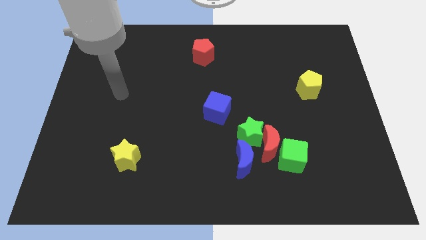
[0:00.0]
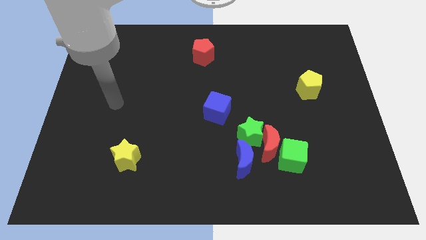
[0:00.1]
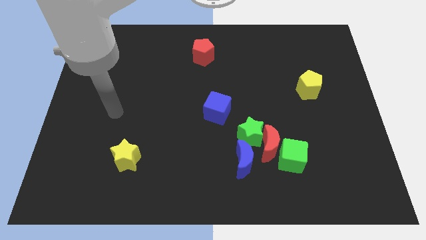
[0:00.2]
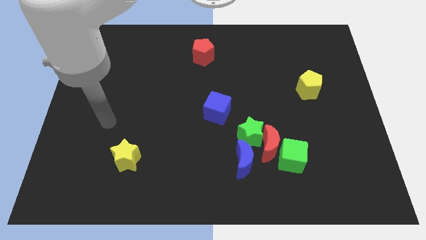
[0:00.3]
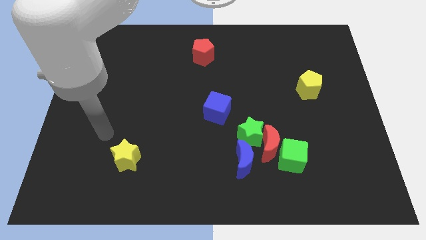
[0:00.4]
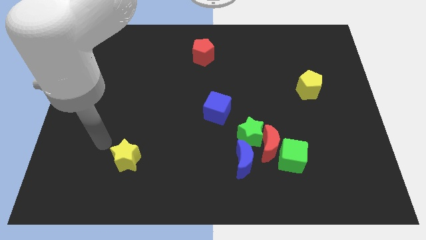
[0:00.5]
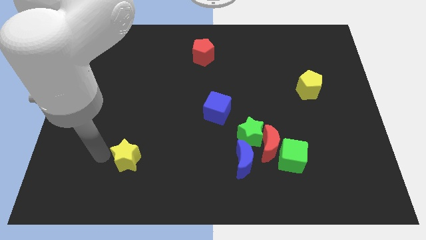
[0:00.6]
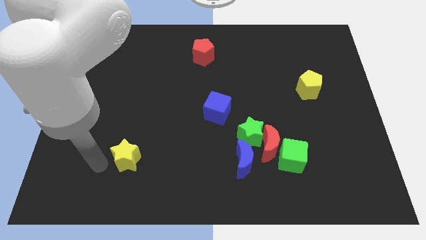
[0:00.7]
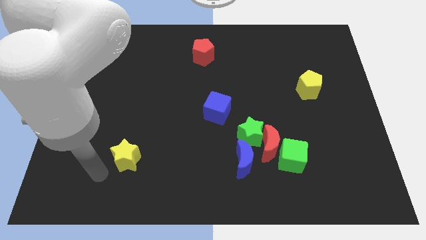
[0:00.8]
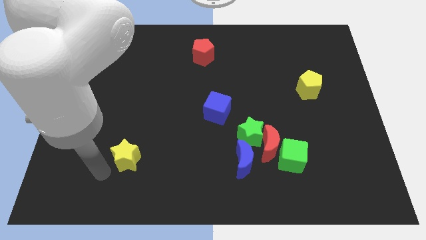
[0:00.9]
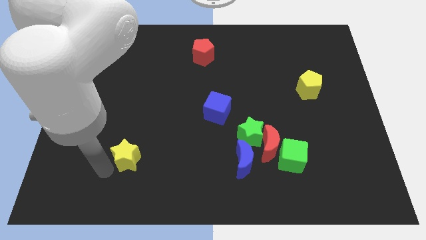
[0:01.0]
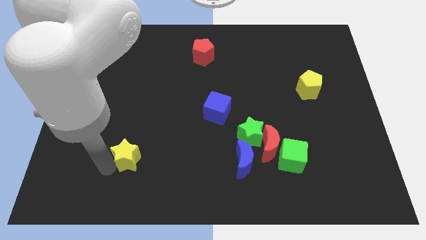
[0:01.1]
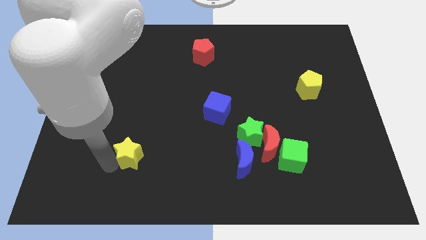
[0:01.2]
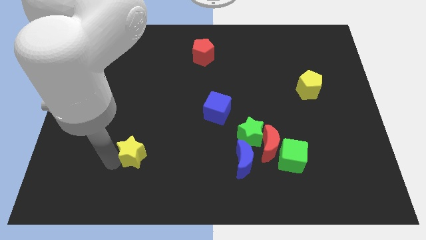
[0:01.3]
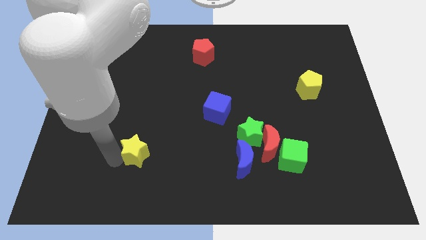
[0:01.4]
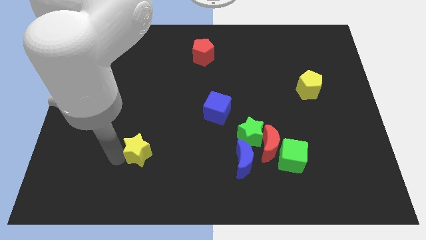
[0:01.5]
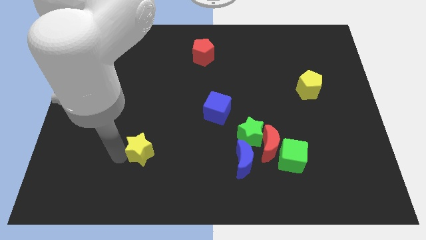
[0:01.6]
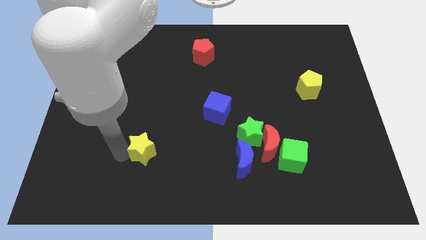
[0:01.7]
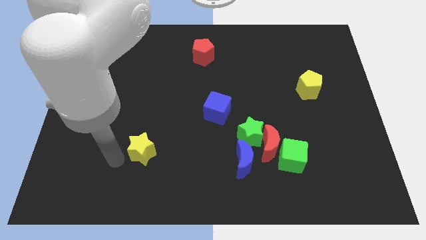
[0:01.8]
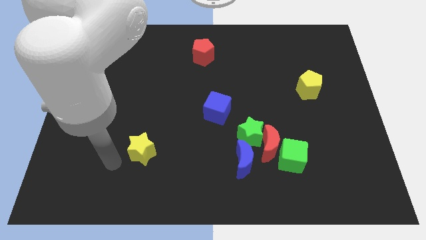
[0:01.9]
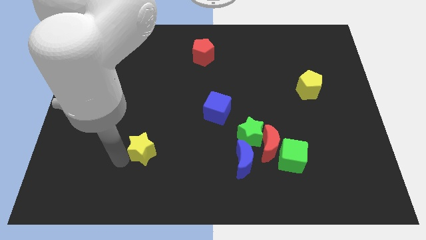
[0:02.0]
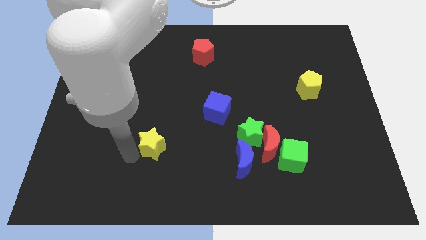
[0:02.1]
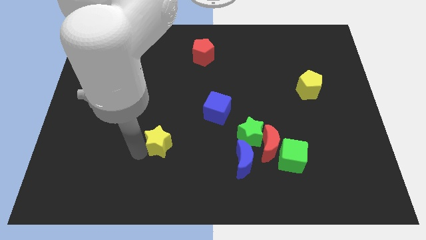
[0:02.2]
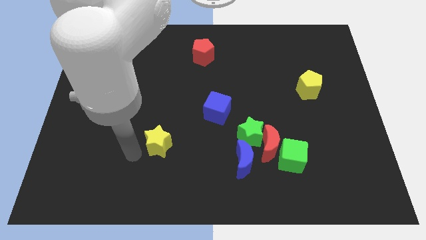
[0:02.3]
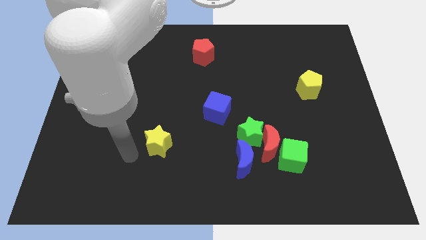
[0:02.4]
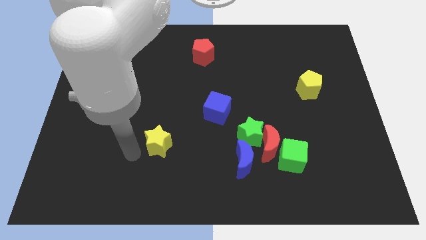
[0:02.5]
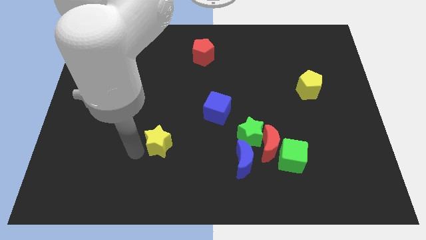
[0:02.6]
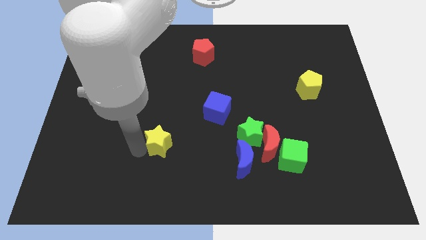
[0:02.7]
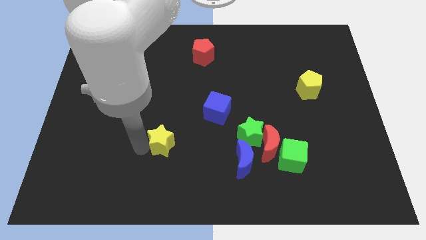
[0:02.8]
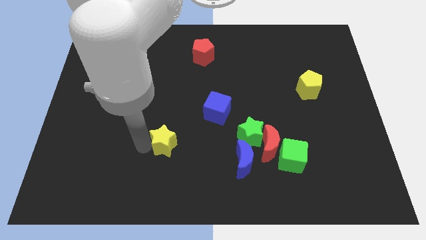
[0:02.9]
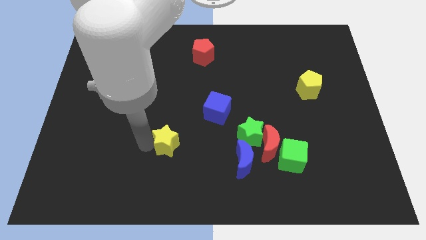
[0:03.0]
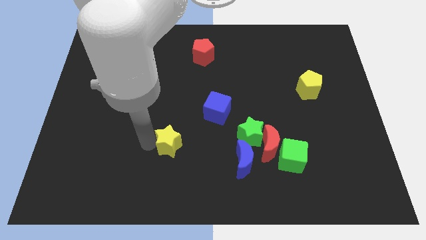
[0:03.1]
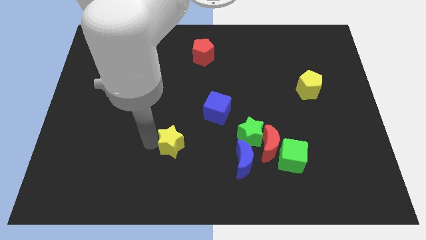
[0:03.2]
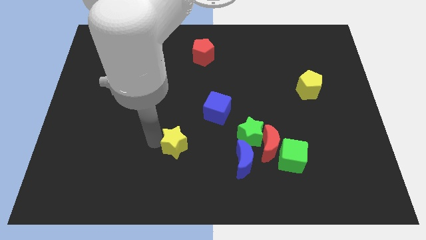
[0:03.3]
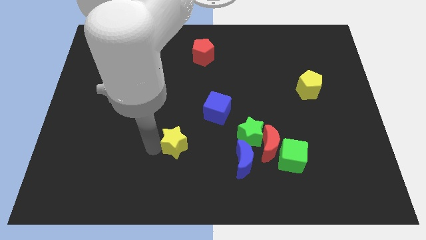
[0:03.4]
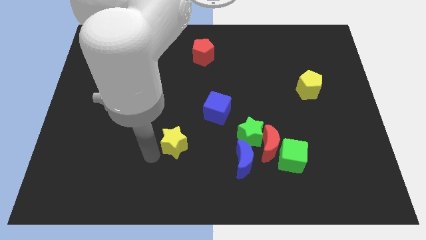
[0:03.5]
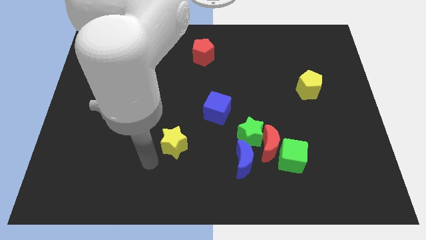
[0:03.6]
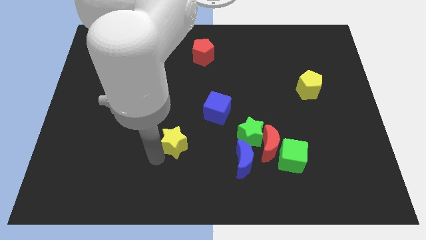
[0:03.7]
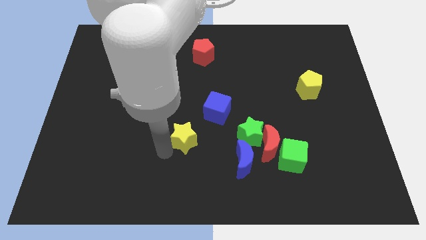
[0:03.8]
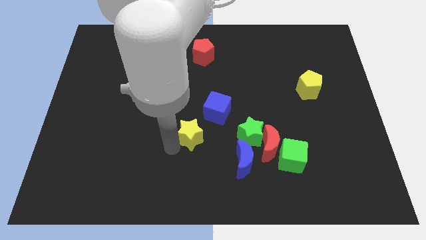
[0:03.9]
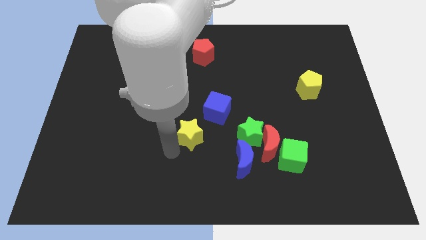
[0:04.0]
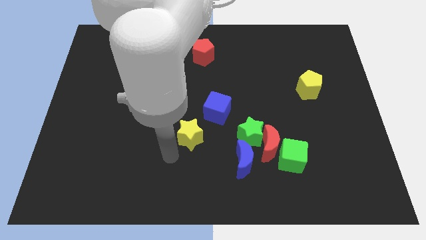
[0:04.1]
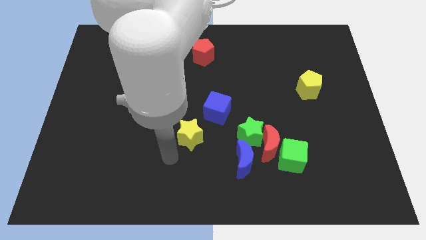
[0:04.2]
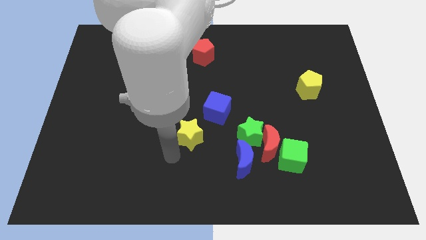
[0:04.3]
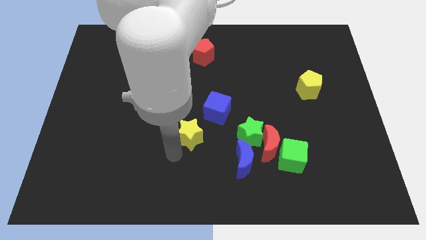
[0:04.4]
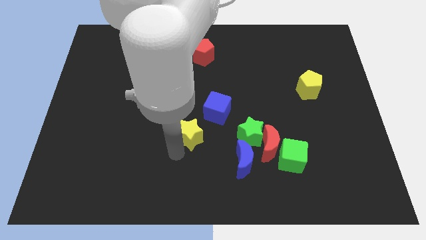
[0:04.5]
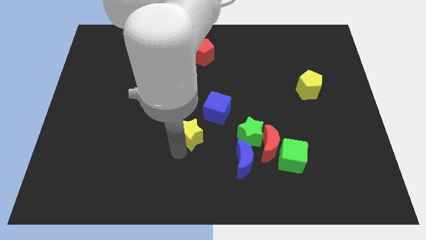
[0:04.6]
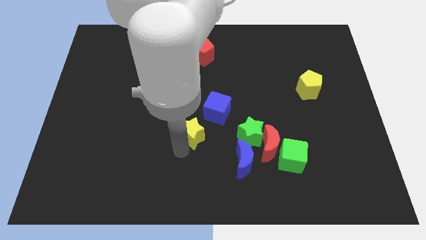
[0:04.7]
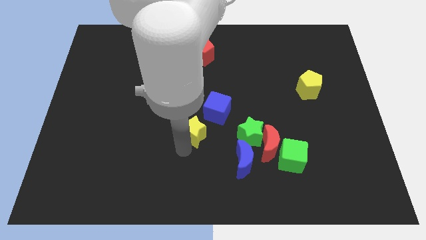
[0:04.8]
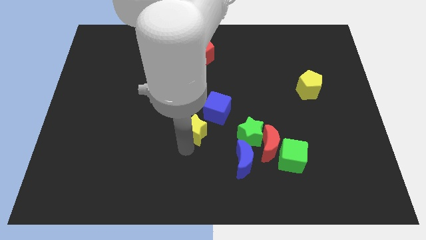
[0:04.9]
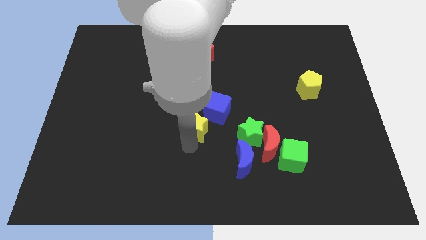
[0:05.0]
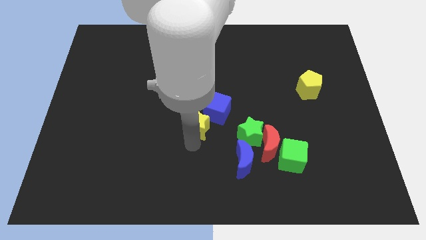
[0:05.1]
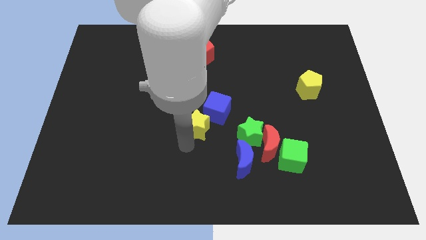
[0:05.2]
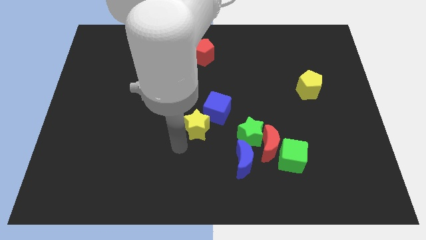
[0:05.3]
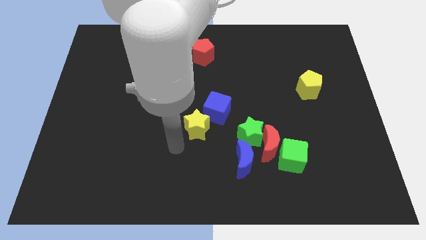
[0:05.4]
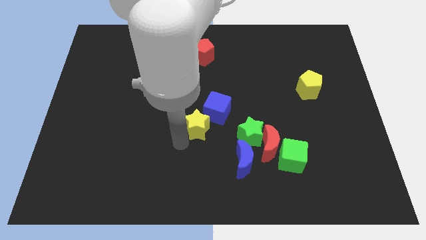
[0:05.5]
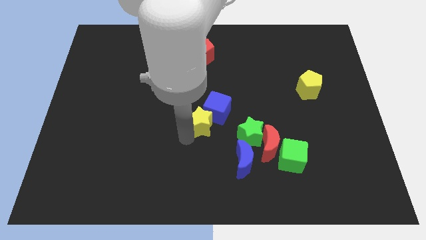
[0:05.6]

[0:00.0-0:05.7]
push the yellow star to the blue cube

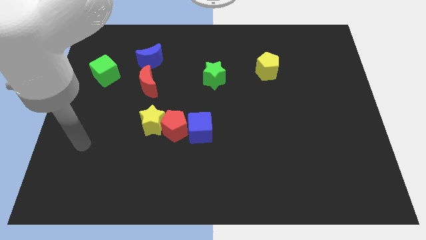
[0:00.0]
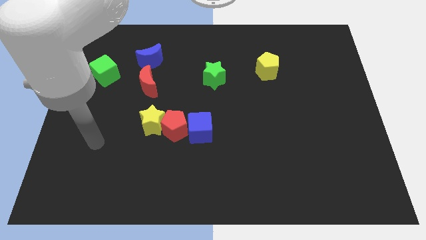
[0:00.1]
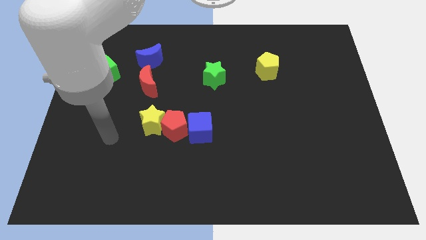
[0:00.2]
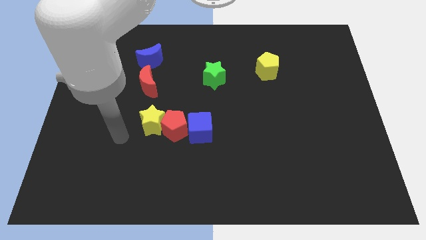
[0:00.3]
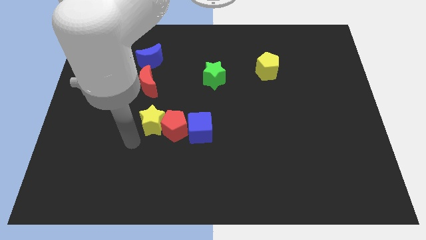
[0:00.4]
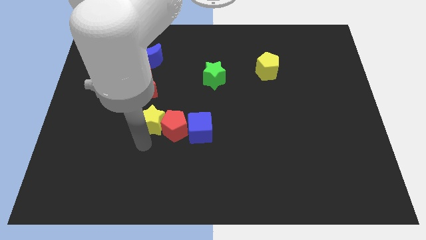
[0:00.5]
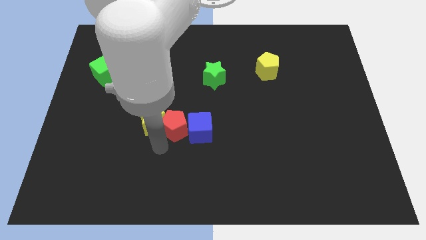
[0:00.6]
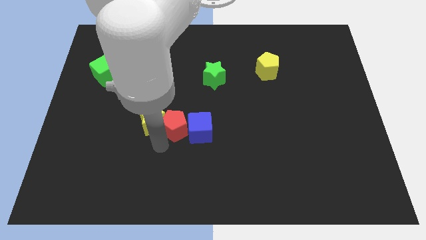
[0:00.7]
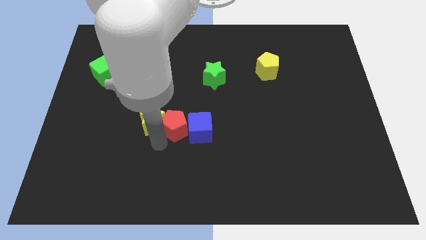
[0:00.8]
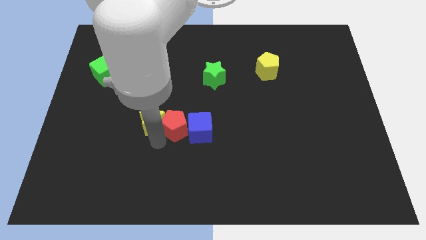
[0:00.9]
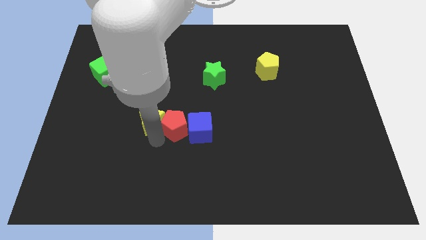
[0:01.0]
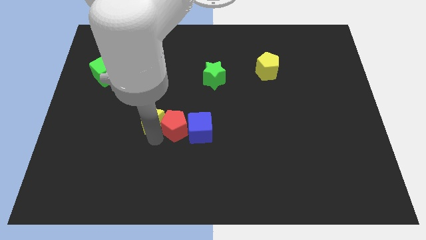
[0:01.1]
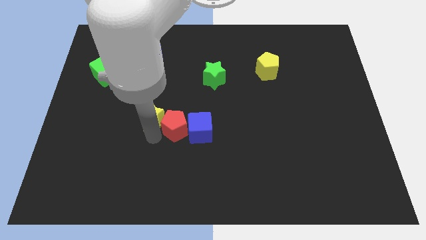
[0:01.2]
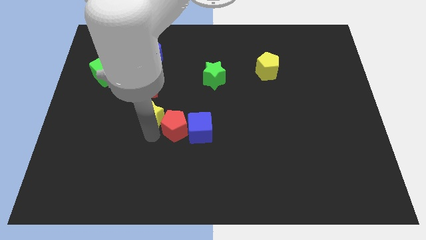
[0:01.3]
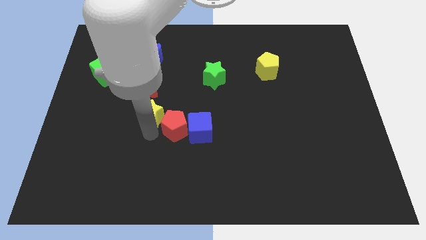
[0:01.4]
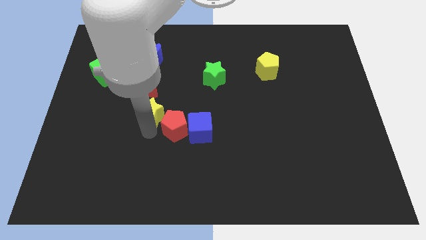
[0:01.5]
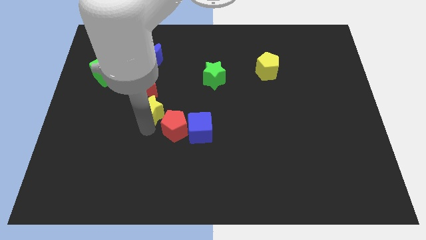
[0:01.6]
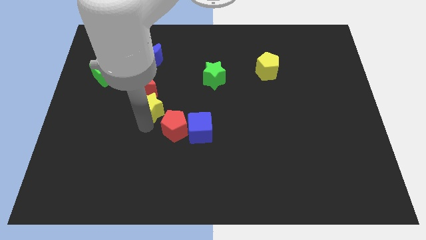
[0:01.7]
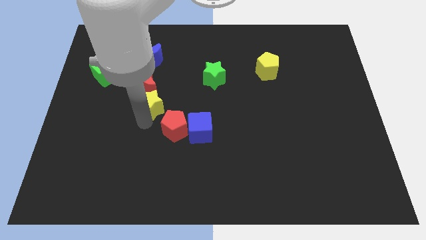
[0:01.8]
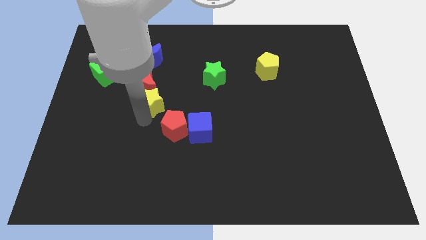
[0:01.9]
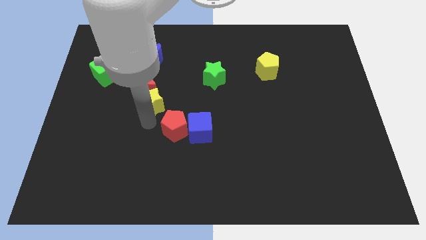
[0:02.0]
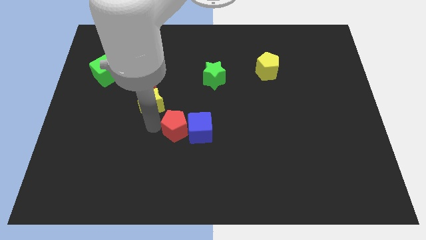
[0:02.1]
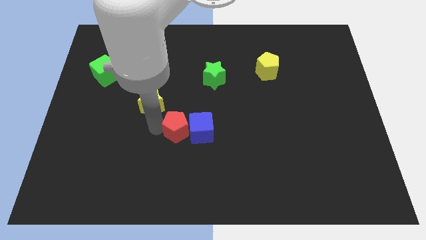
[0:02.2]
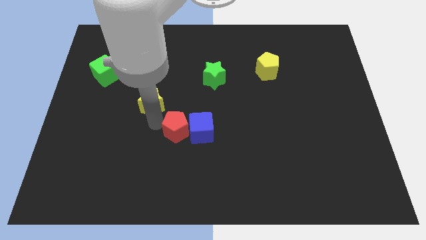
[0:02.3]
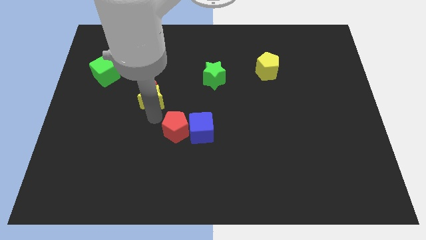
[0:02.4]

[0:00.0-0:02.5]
put the yellow star next to the red moon
